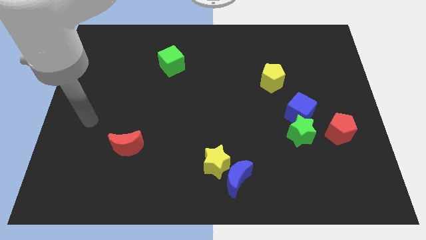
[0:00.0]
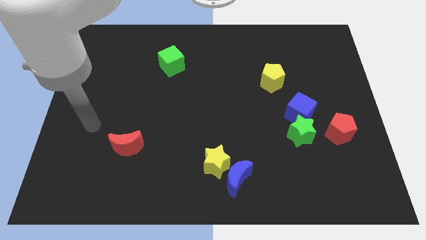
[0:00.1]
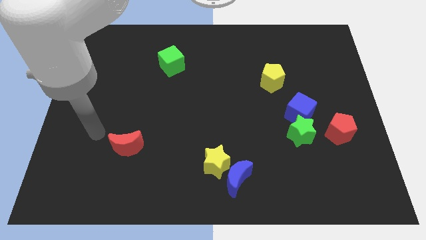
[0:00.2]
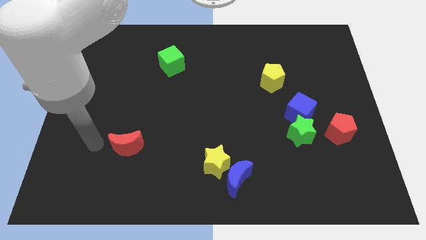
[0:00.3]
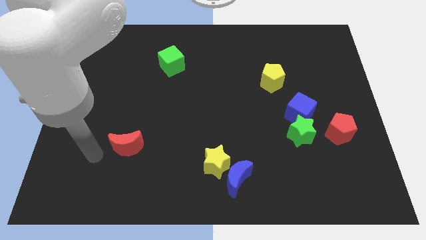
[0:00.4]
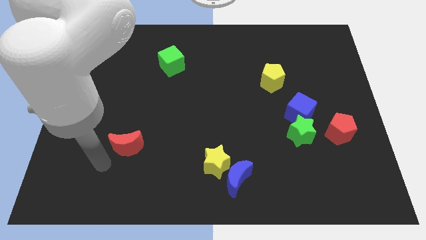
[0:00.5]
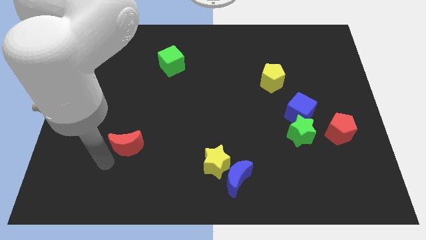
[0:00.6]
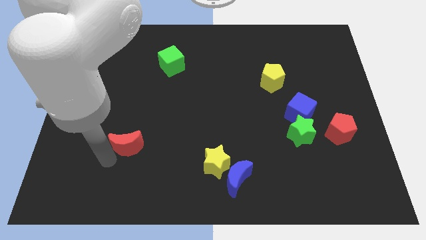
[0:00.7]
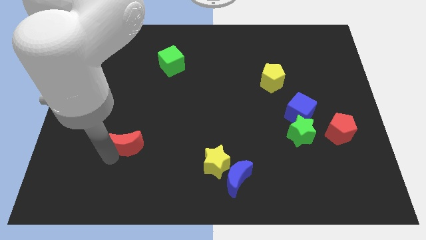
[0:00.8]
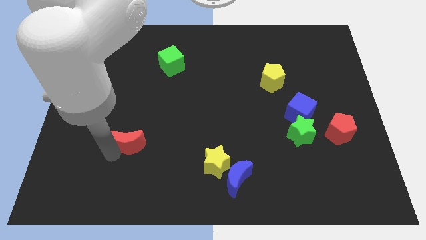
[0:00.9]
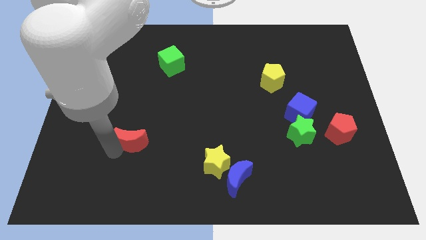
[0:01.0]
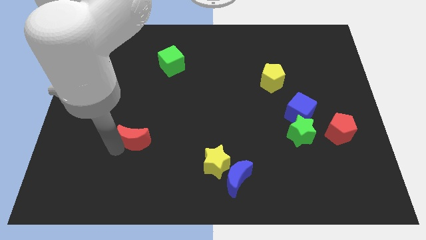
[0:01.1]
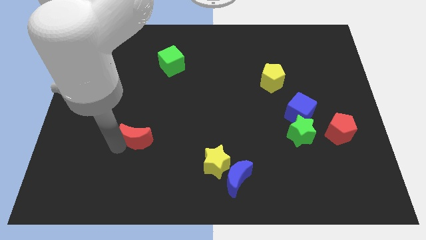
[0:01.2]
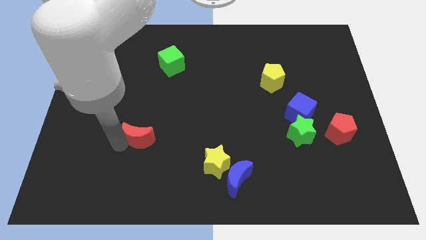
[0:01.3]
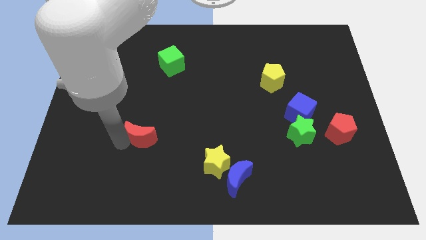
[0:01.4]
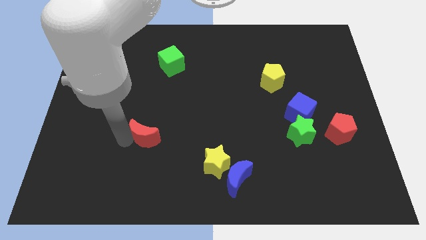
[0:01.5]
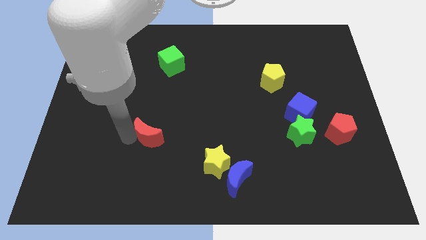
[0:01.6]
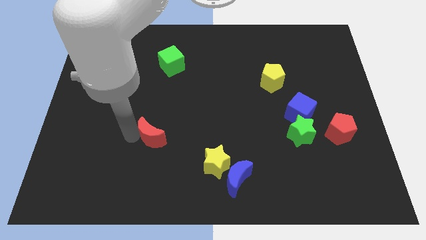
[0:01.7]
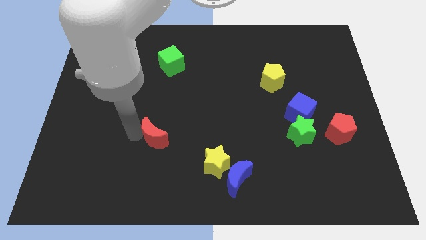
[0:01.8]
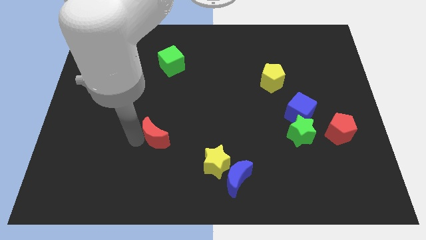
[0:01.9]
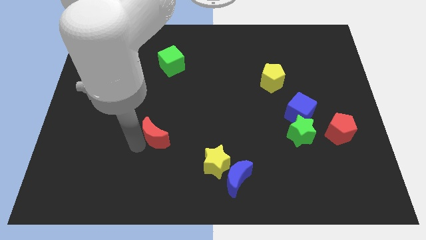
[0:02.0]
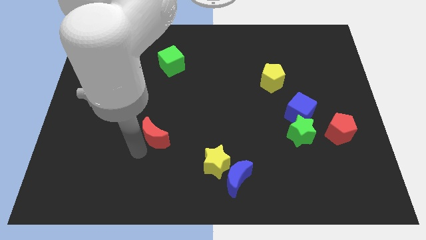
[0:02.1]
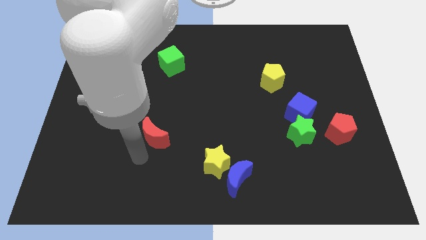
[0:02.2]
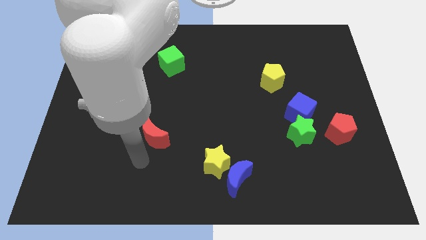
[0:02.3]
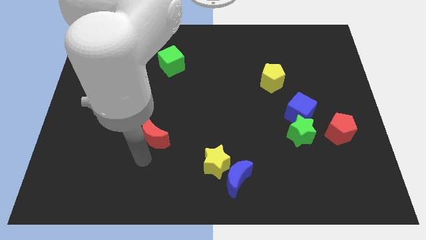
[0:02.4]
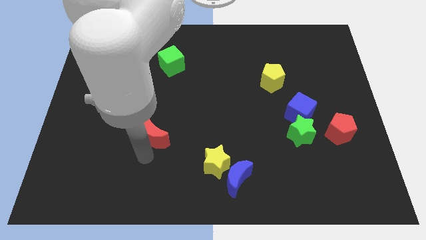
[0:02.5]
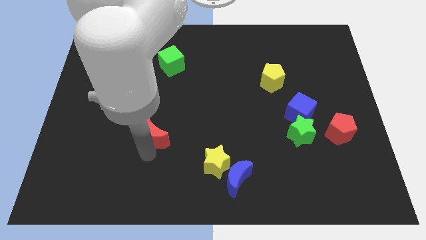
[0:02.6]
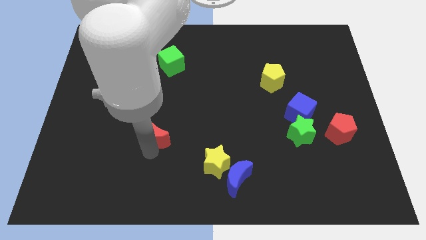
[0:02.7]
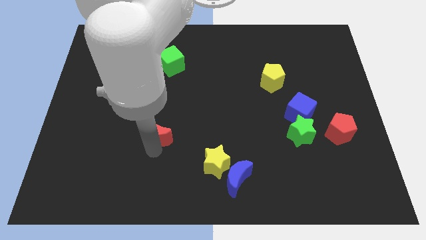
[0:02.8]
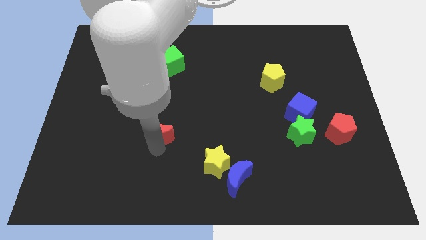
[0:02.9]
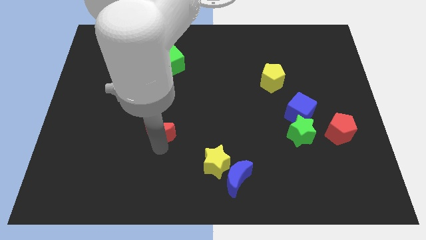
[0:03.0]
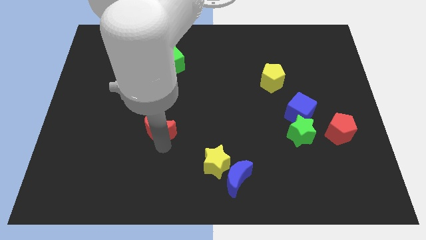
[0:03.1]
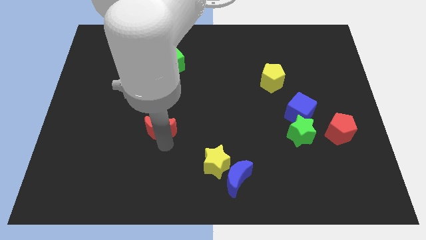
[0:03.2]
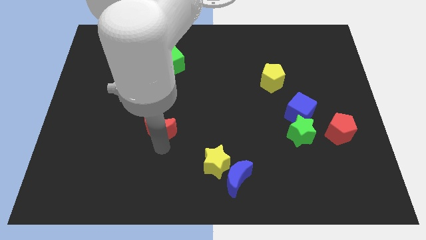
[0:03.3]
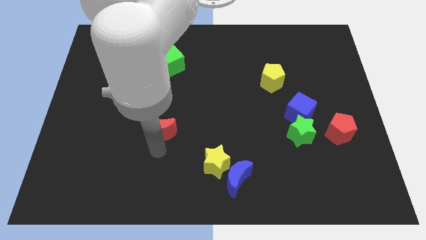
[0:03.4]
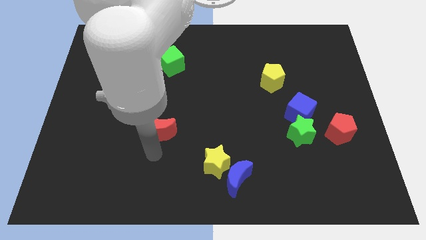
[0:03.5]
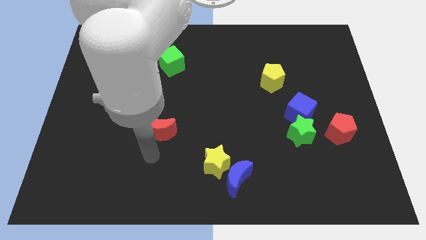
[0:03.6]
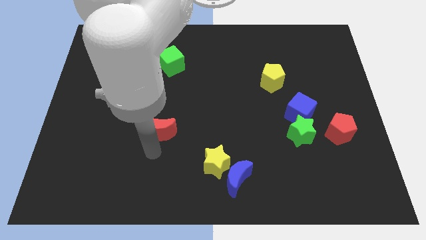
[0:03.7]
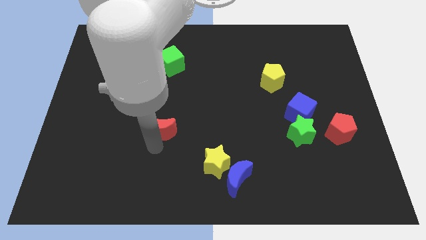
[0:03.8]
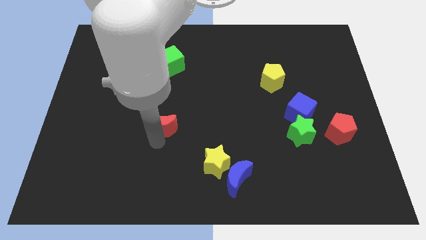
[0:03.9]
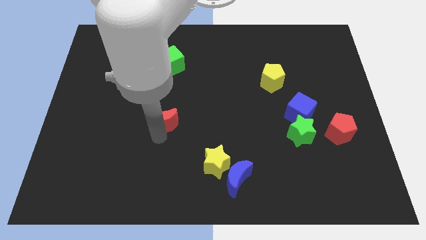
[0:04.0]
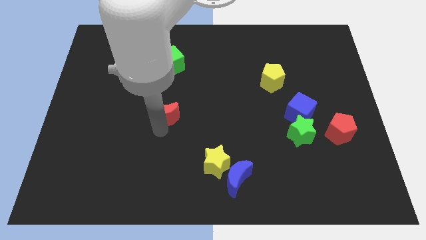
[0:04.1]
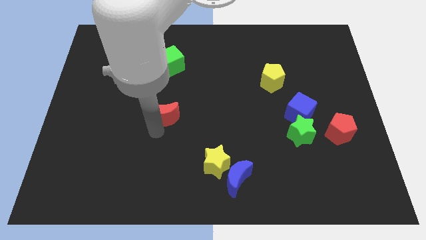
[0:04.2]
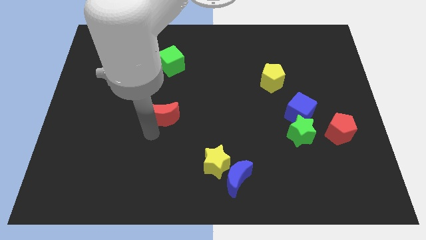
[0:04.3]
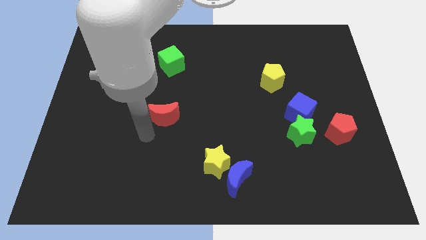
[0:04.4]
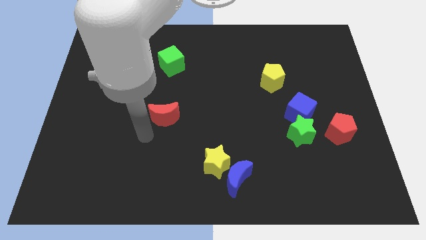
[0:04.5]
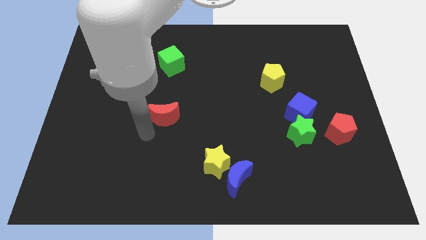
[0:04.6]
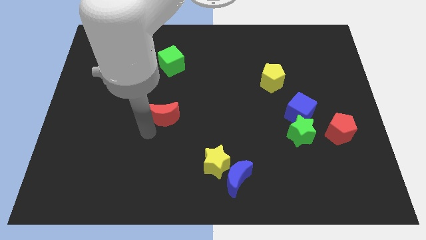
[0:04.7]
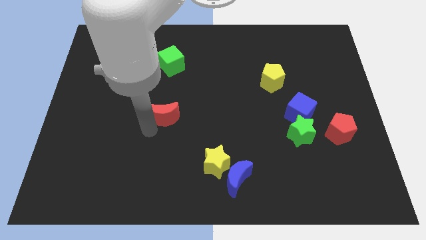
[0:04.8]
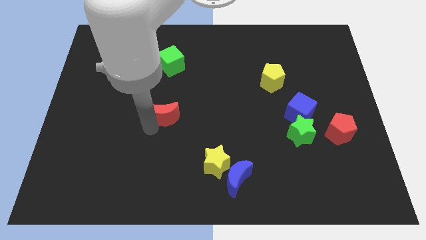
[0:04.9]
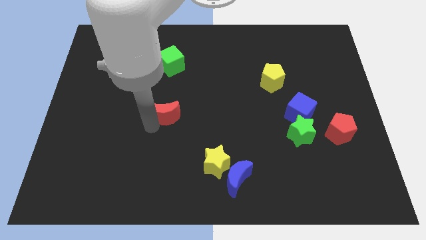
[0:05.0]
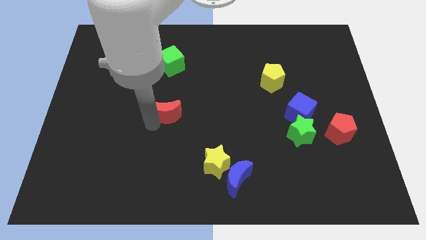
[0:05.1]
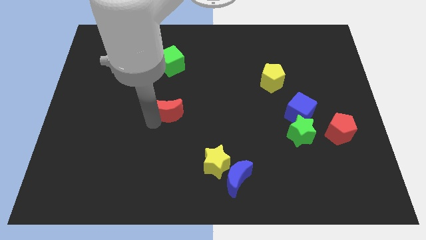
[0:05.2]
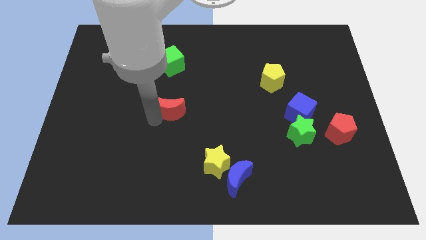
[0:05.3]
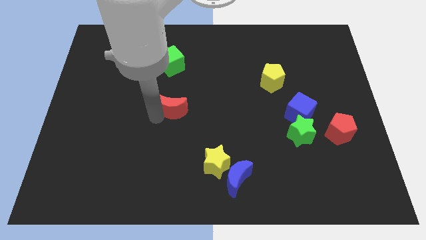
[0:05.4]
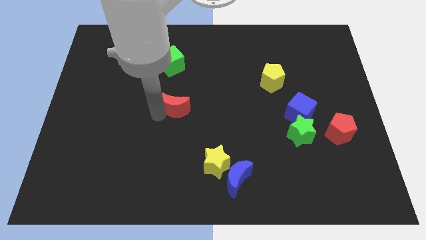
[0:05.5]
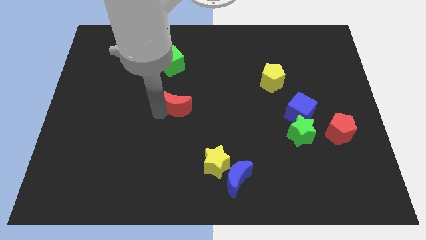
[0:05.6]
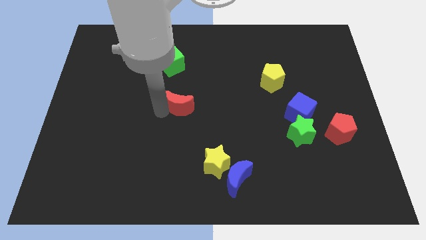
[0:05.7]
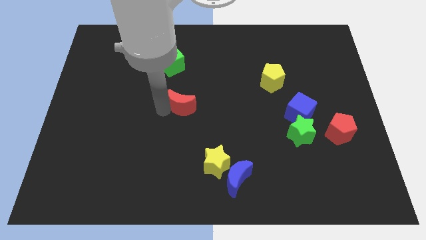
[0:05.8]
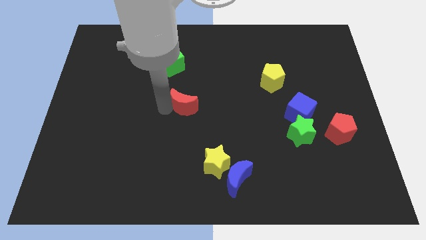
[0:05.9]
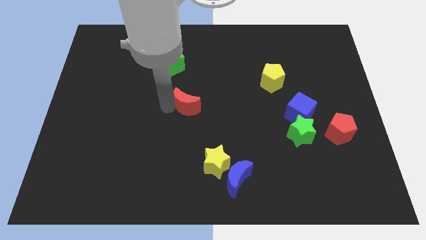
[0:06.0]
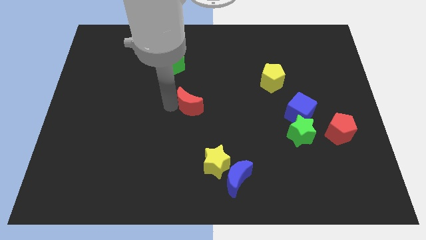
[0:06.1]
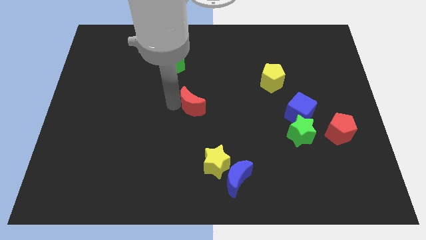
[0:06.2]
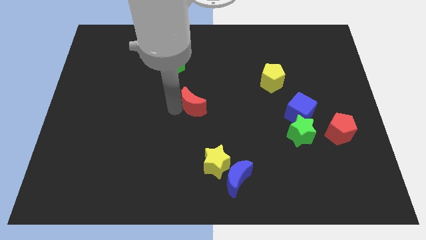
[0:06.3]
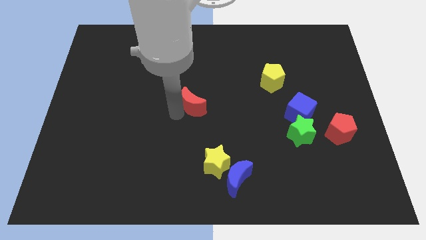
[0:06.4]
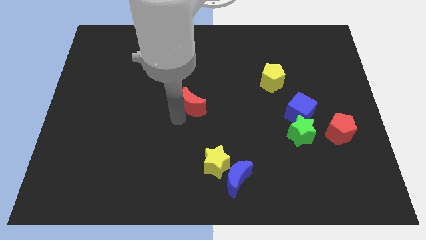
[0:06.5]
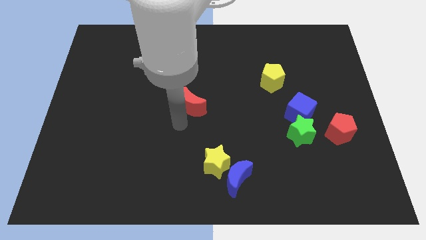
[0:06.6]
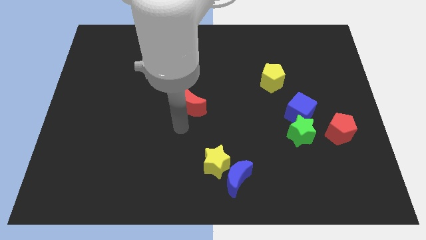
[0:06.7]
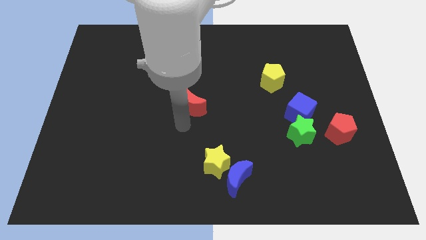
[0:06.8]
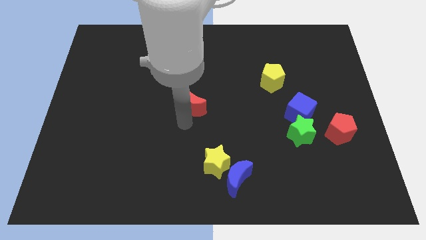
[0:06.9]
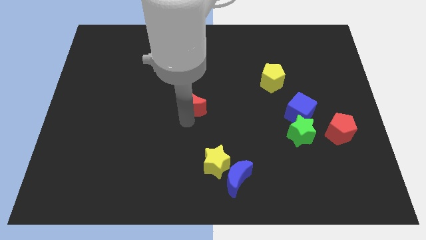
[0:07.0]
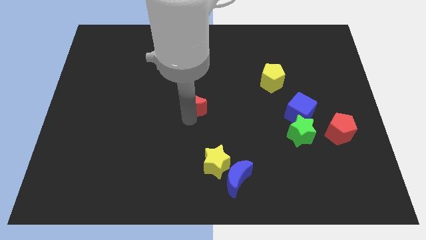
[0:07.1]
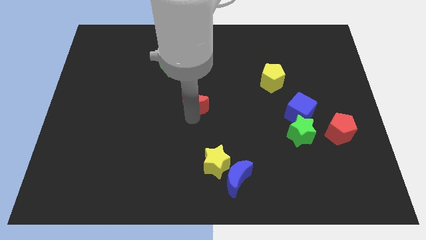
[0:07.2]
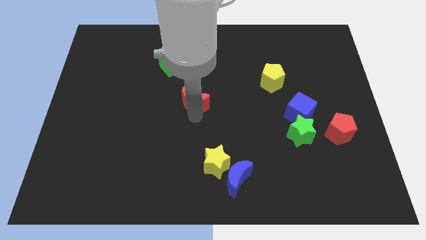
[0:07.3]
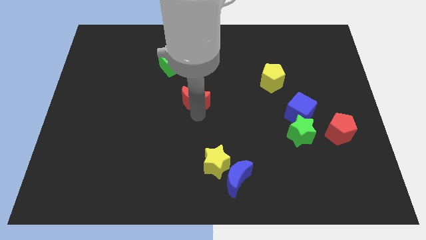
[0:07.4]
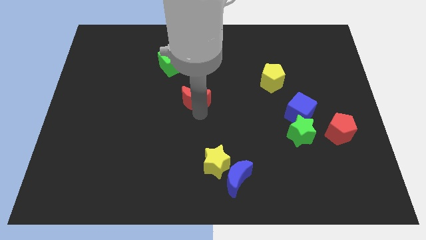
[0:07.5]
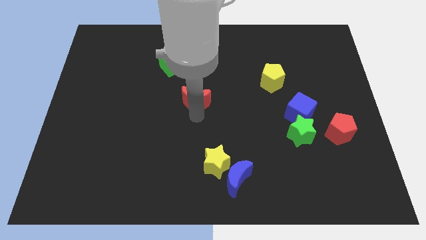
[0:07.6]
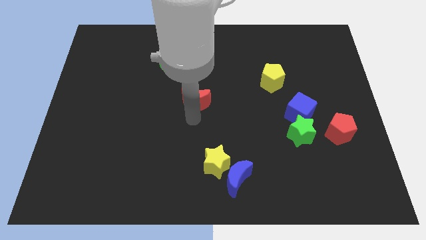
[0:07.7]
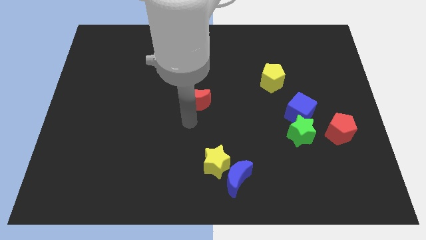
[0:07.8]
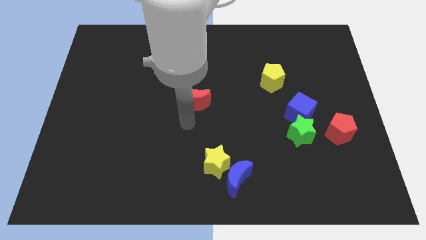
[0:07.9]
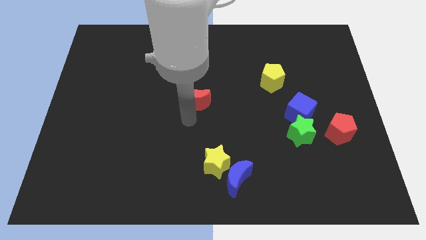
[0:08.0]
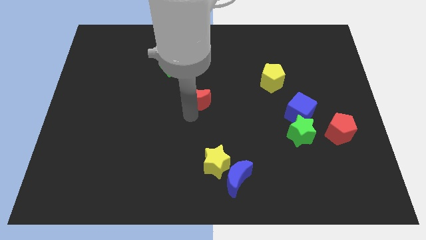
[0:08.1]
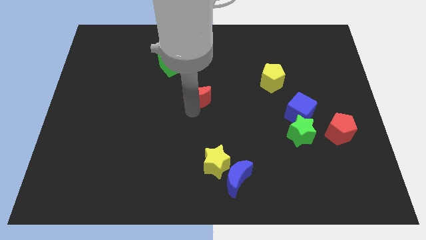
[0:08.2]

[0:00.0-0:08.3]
push the red moon up and to the right diagonally
